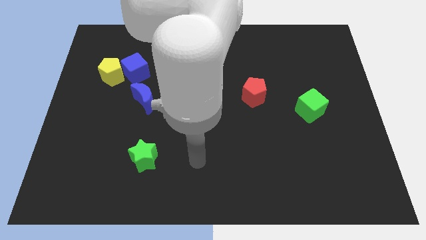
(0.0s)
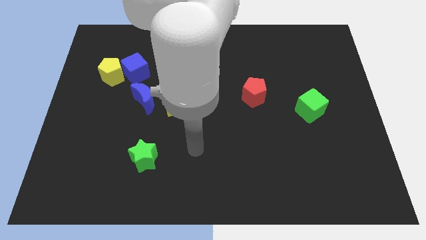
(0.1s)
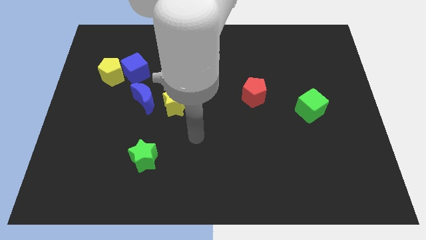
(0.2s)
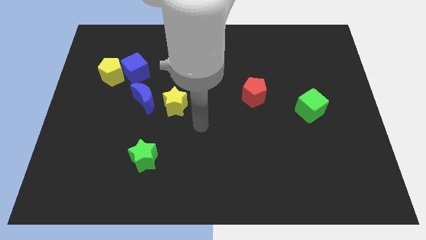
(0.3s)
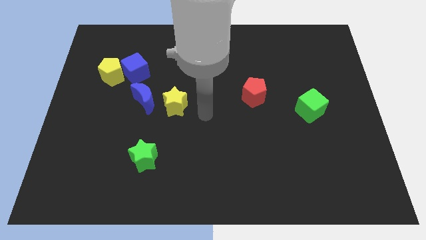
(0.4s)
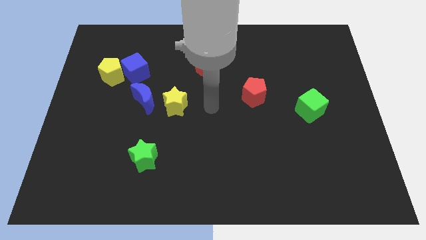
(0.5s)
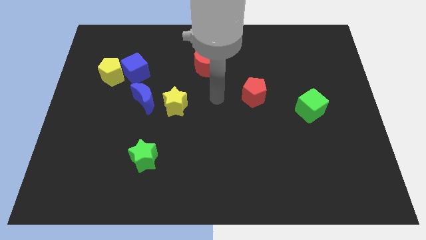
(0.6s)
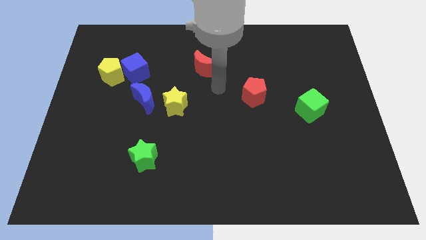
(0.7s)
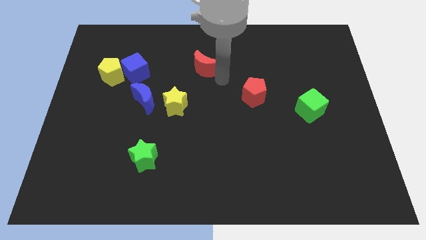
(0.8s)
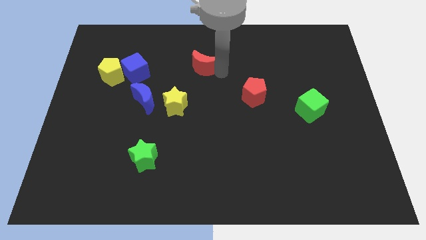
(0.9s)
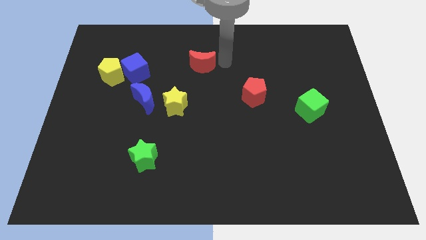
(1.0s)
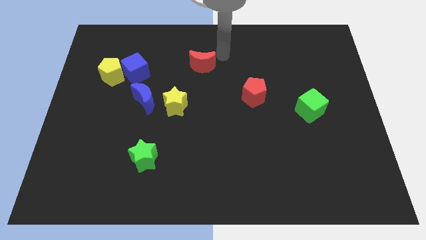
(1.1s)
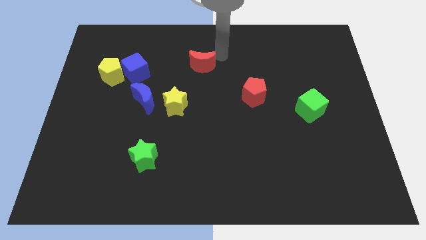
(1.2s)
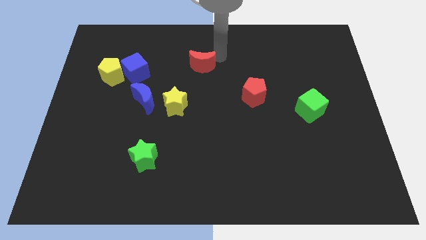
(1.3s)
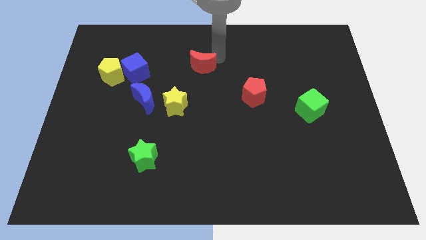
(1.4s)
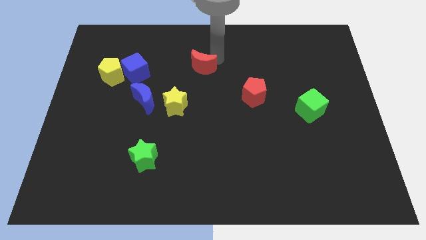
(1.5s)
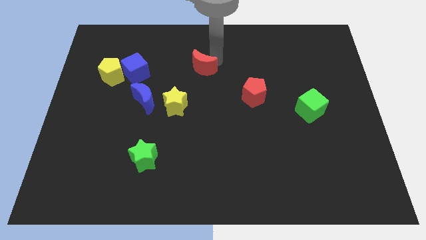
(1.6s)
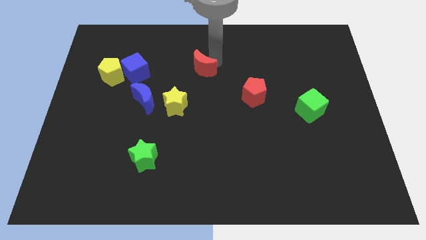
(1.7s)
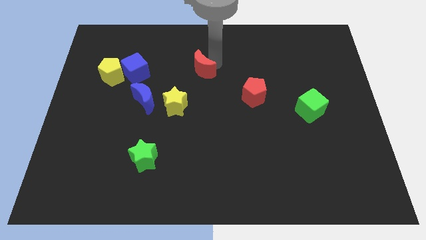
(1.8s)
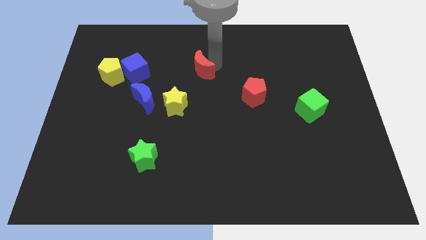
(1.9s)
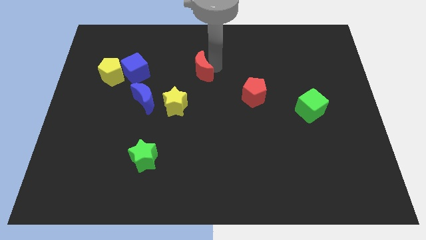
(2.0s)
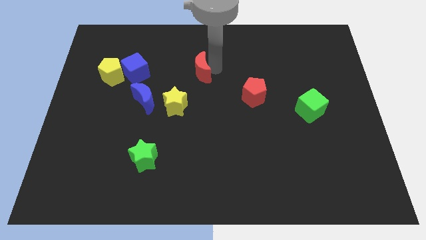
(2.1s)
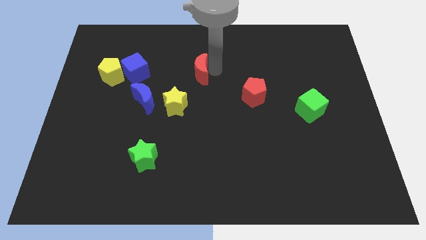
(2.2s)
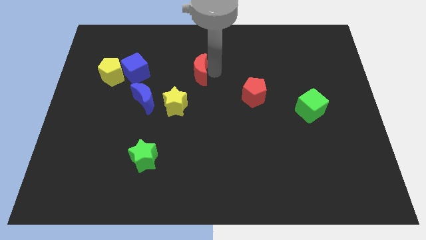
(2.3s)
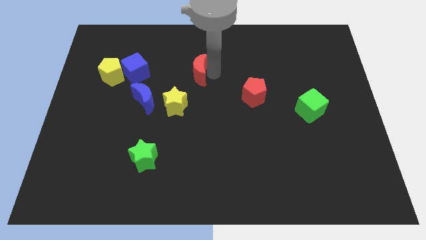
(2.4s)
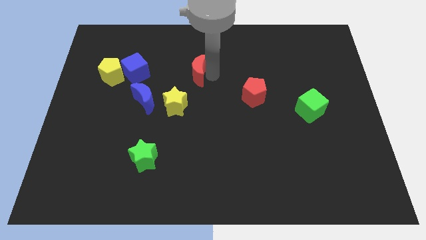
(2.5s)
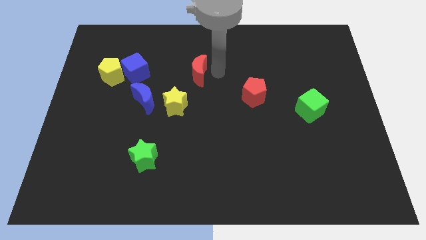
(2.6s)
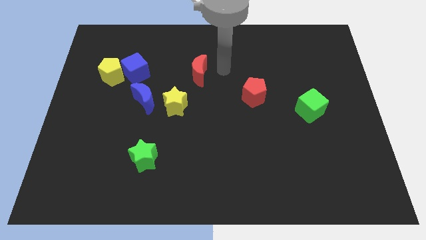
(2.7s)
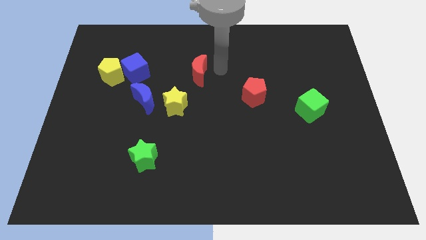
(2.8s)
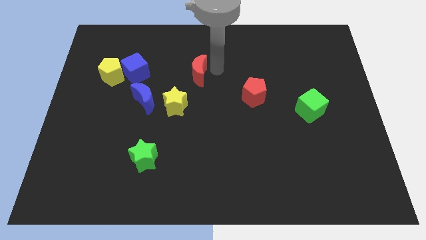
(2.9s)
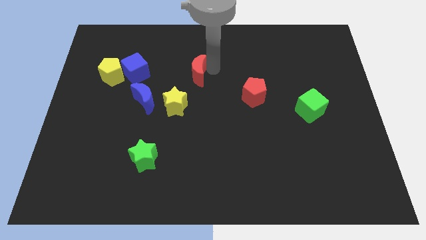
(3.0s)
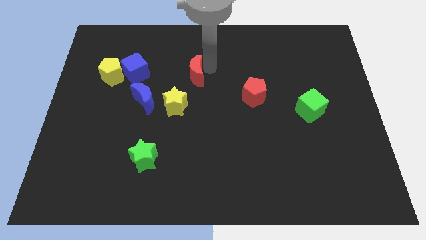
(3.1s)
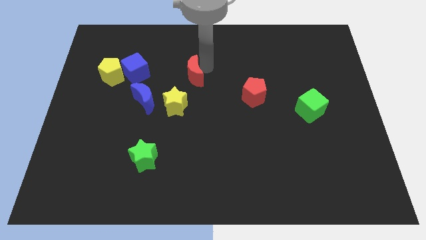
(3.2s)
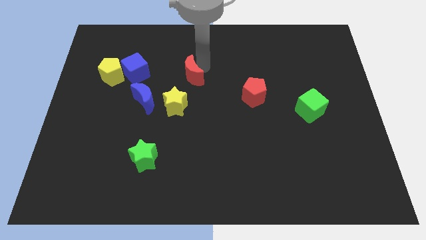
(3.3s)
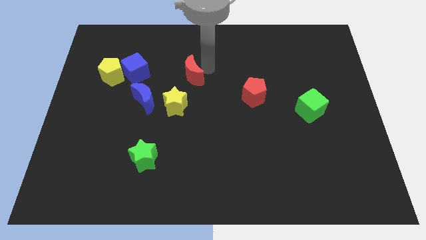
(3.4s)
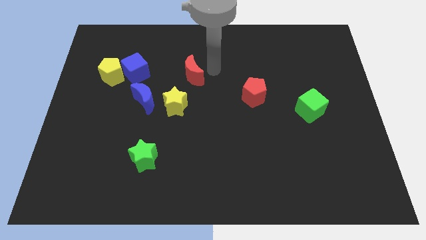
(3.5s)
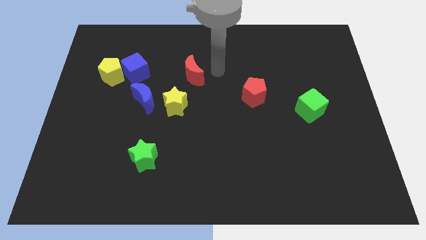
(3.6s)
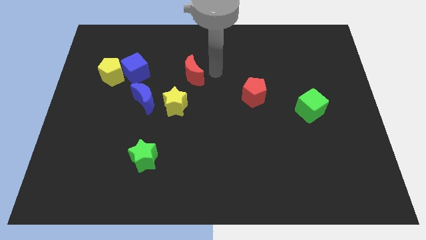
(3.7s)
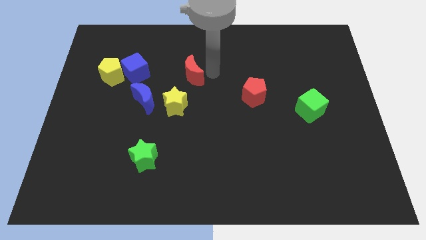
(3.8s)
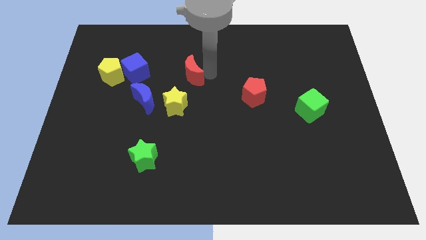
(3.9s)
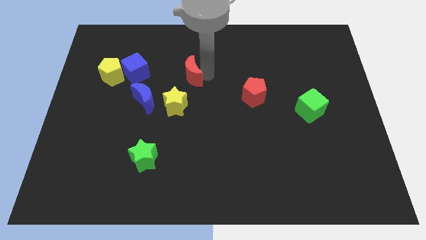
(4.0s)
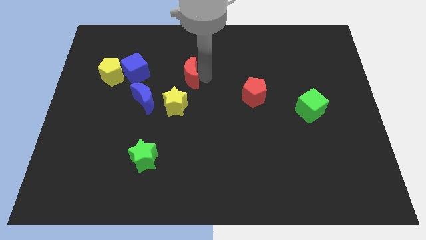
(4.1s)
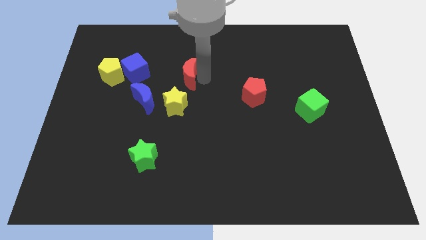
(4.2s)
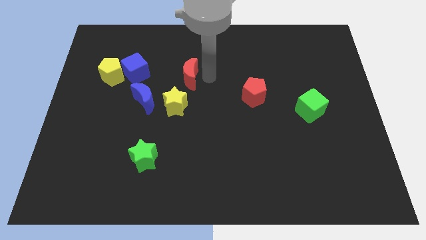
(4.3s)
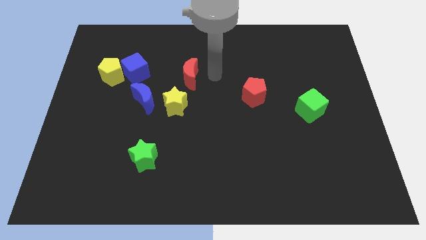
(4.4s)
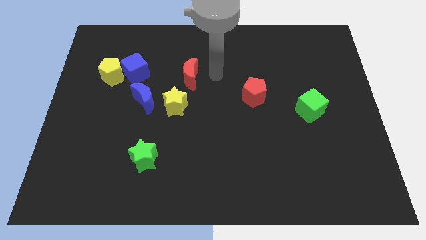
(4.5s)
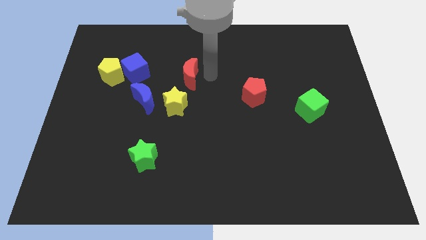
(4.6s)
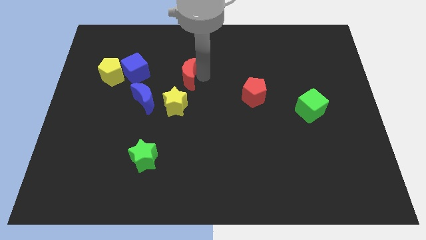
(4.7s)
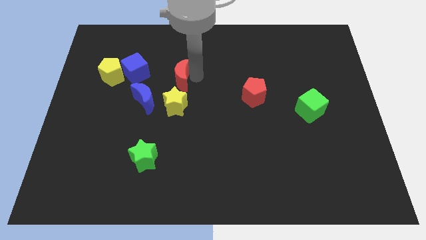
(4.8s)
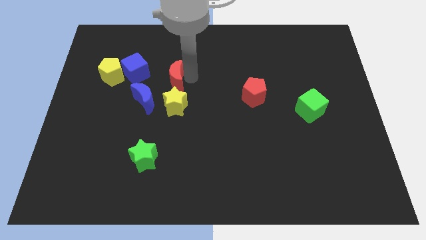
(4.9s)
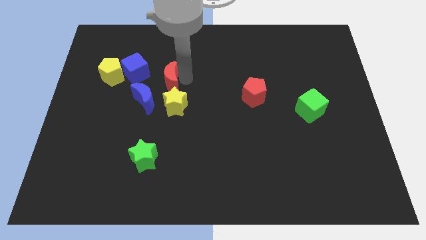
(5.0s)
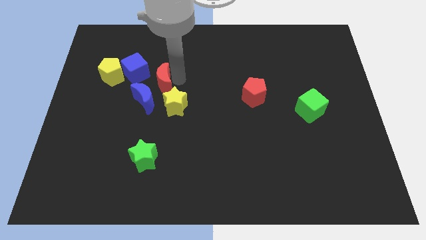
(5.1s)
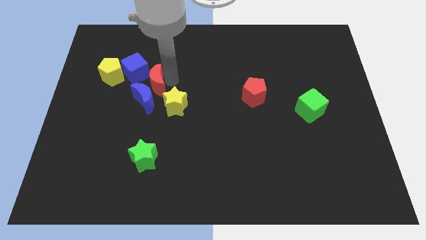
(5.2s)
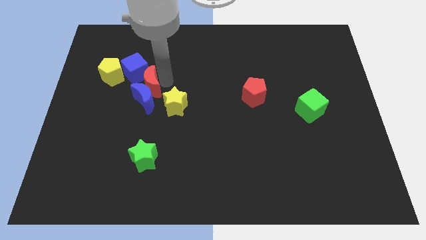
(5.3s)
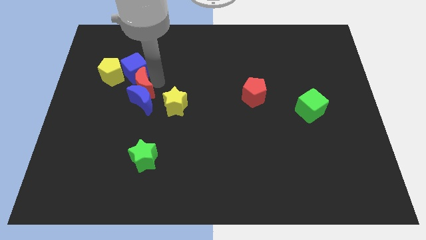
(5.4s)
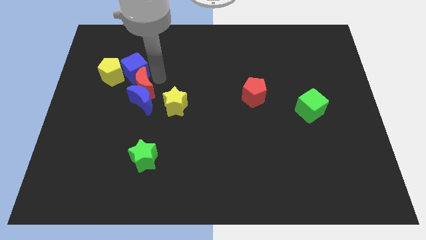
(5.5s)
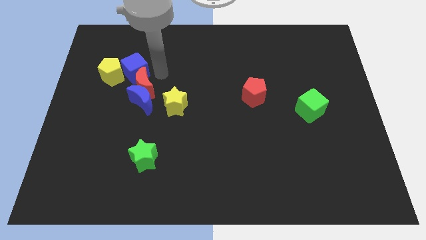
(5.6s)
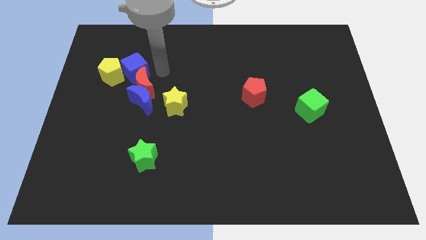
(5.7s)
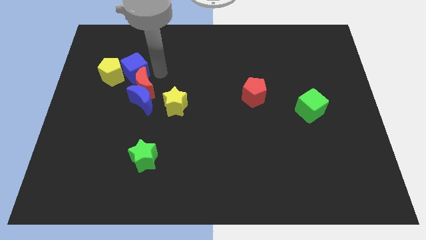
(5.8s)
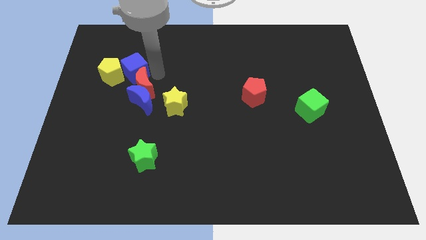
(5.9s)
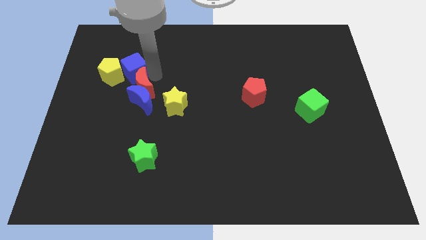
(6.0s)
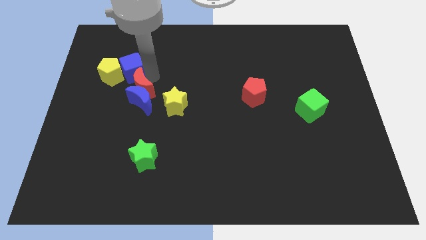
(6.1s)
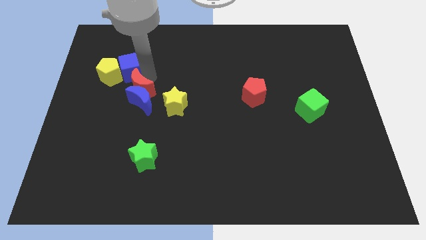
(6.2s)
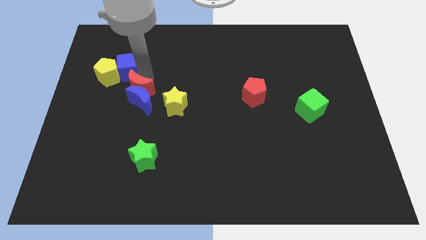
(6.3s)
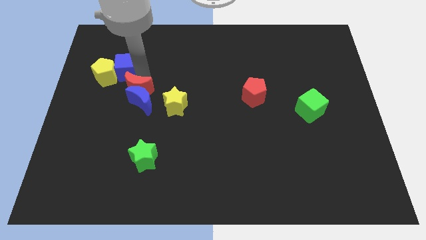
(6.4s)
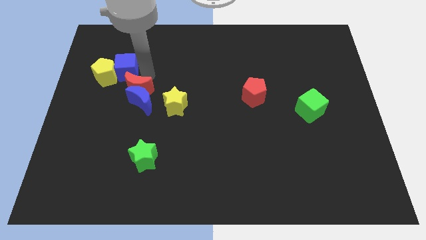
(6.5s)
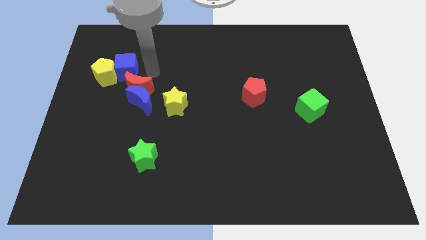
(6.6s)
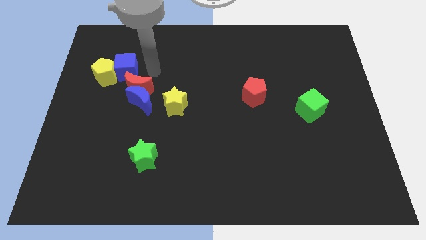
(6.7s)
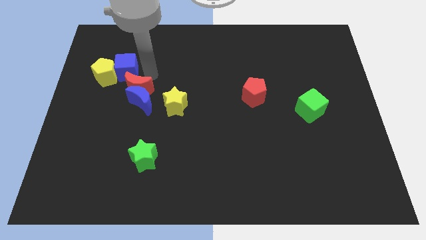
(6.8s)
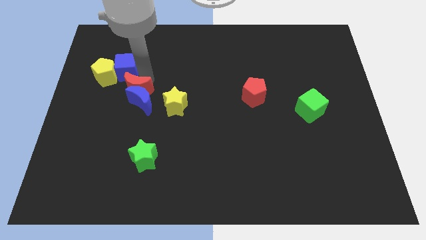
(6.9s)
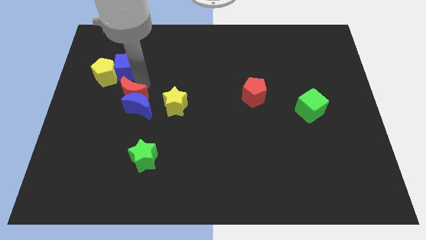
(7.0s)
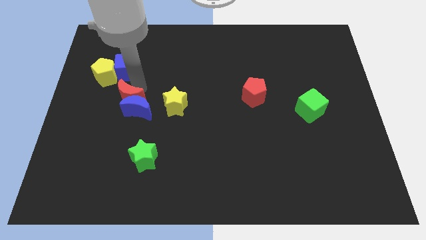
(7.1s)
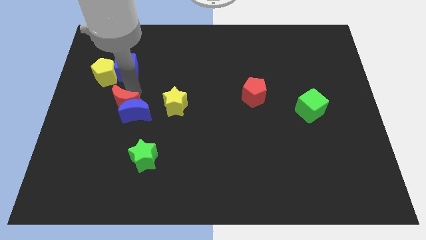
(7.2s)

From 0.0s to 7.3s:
push the red moon down and left

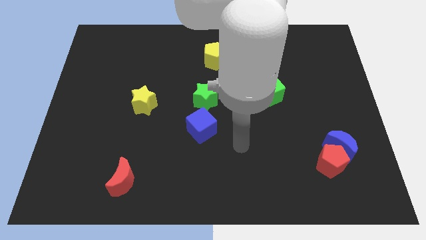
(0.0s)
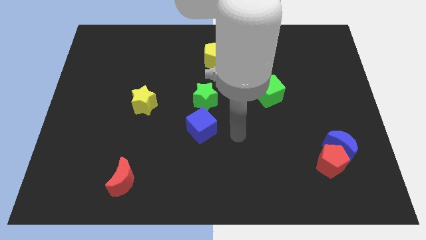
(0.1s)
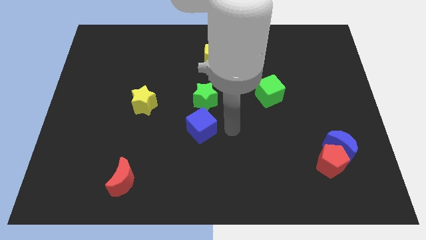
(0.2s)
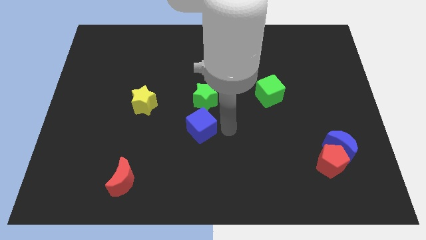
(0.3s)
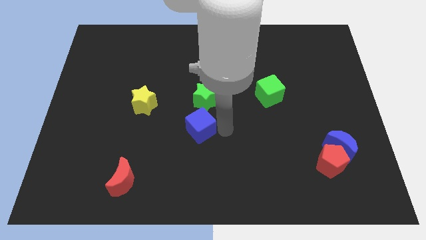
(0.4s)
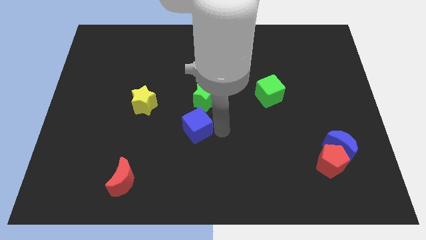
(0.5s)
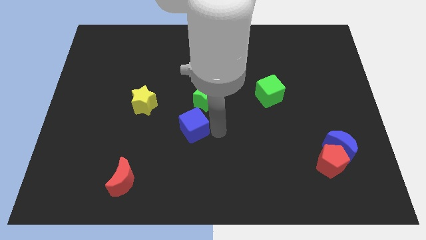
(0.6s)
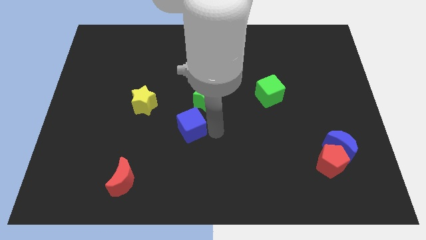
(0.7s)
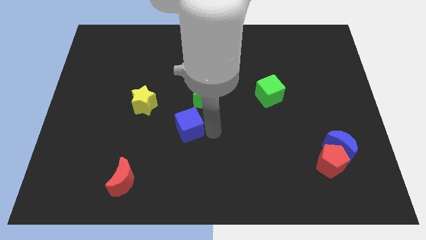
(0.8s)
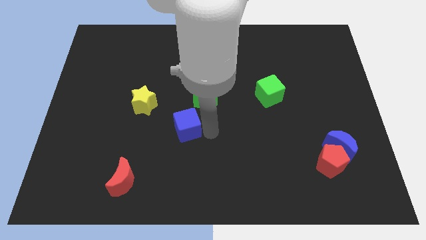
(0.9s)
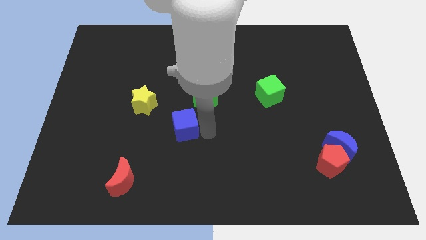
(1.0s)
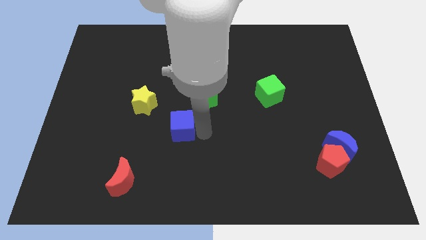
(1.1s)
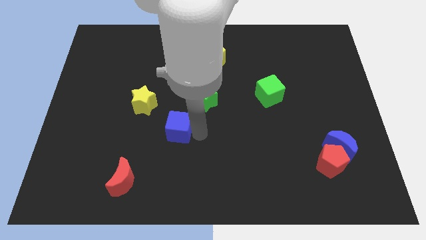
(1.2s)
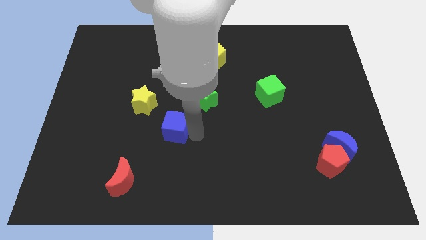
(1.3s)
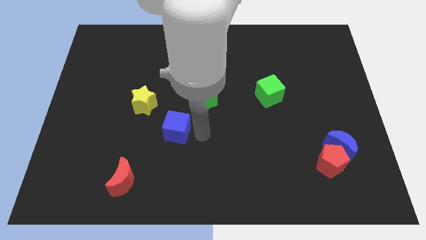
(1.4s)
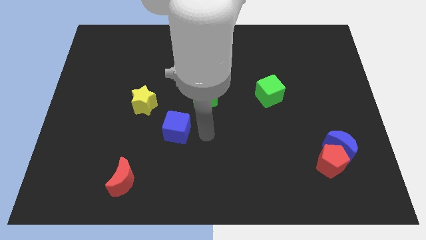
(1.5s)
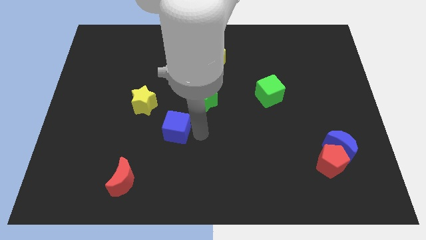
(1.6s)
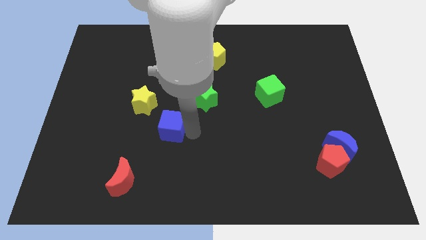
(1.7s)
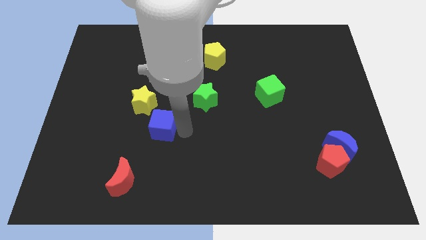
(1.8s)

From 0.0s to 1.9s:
push the blue cube left a bit
